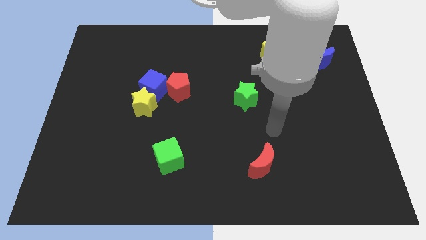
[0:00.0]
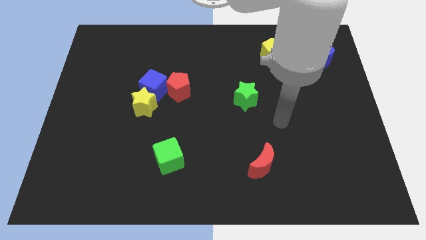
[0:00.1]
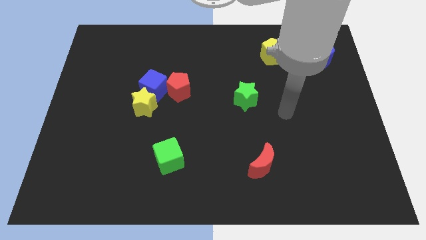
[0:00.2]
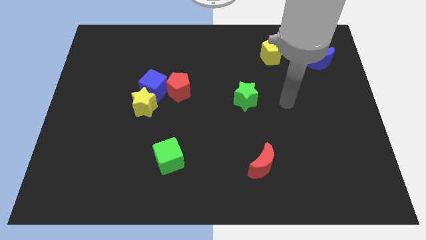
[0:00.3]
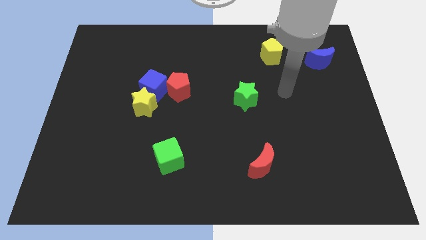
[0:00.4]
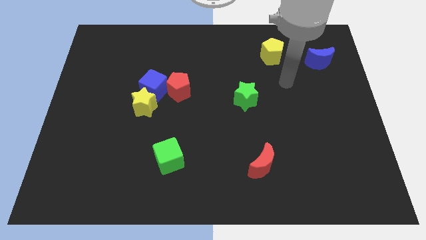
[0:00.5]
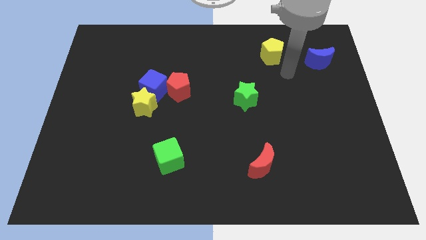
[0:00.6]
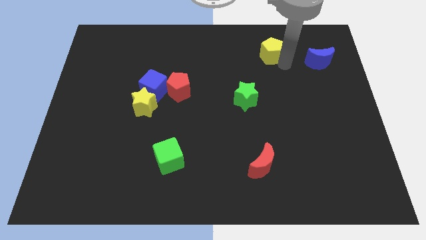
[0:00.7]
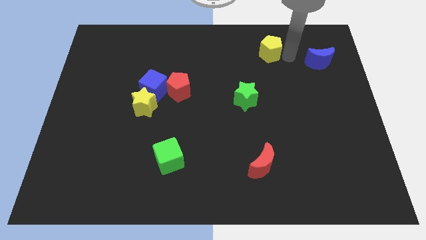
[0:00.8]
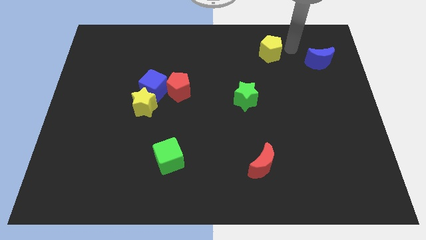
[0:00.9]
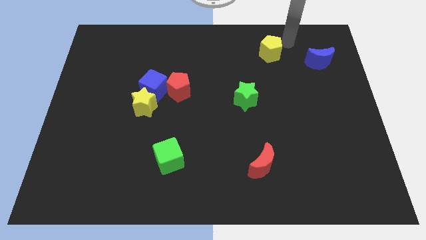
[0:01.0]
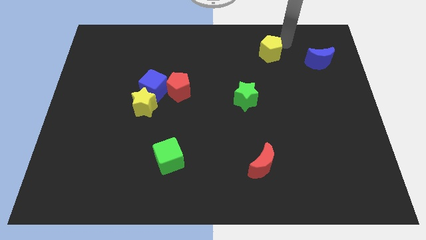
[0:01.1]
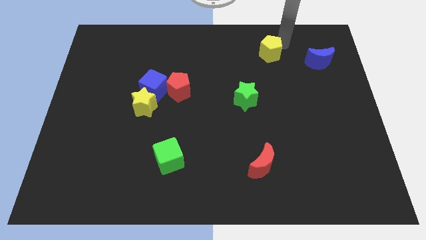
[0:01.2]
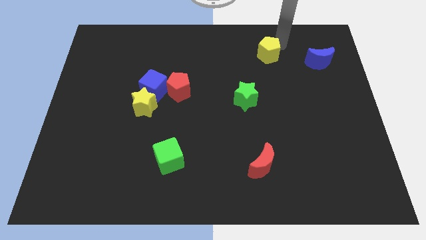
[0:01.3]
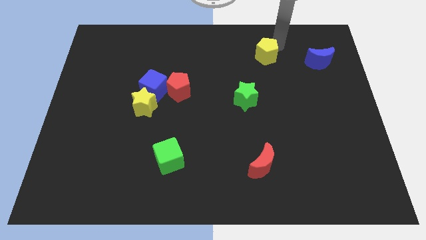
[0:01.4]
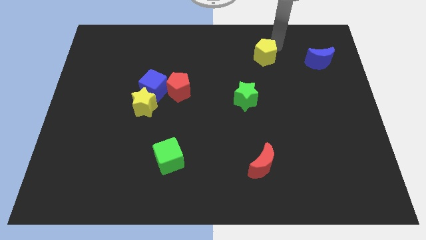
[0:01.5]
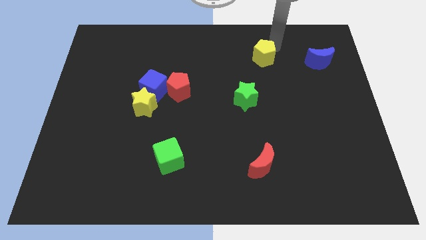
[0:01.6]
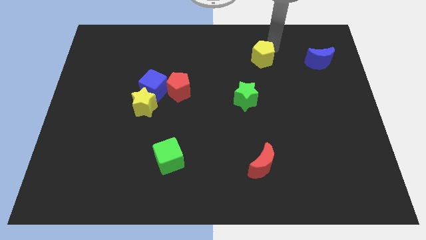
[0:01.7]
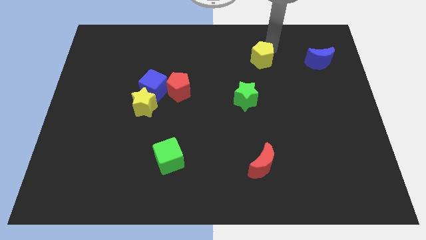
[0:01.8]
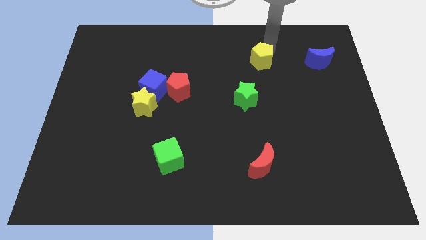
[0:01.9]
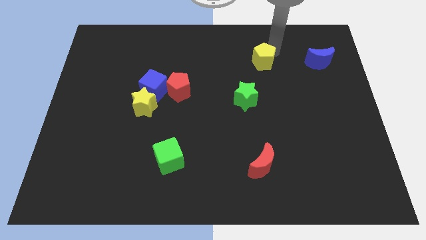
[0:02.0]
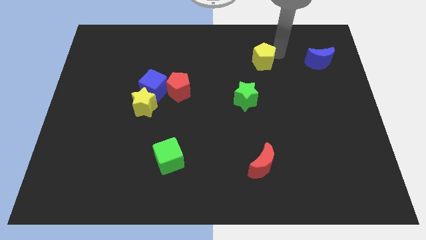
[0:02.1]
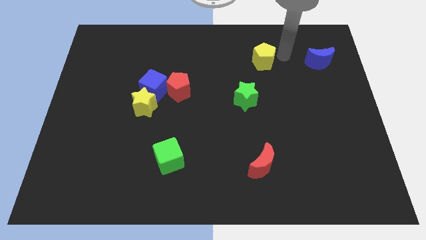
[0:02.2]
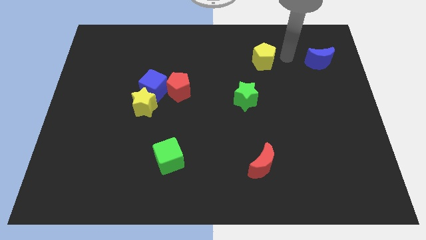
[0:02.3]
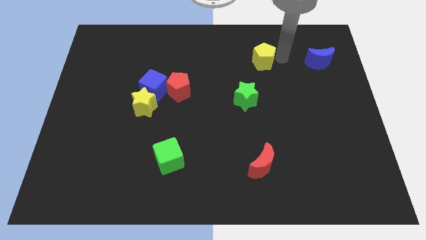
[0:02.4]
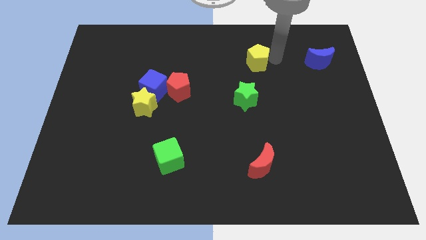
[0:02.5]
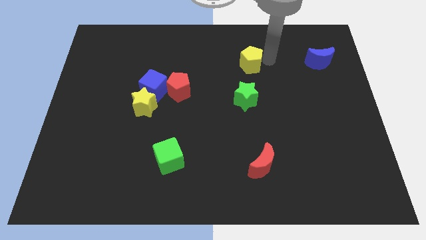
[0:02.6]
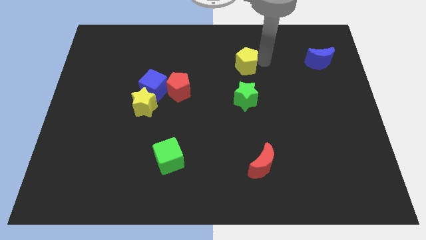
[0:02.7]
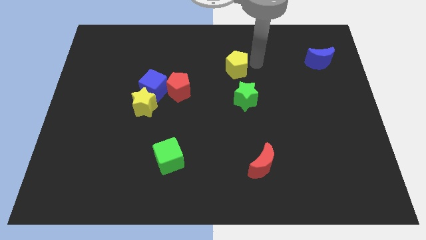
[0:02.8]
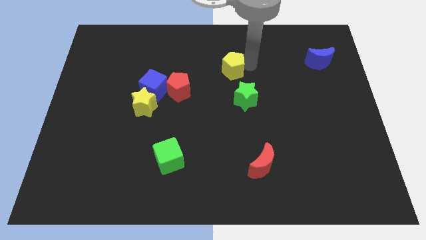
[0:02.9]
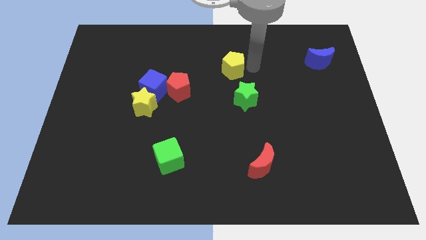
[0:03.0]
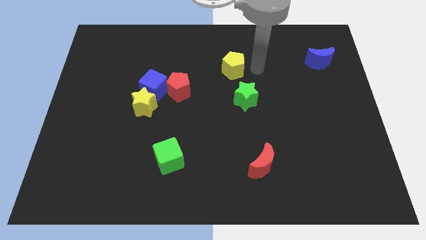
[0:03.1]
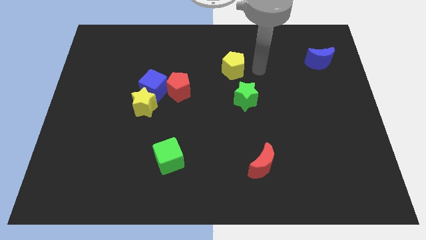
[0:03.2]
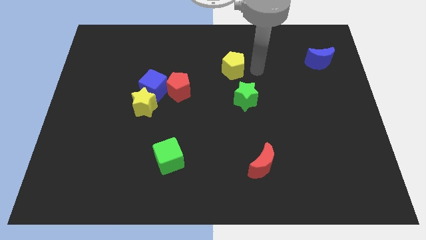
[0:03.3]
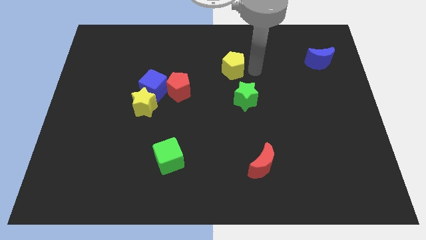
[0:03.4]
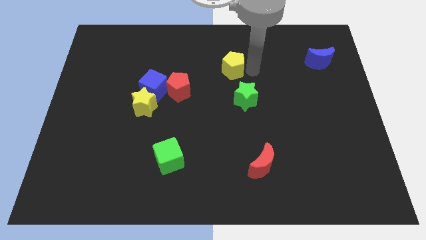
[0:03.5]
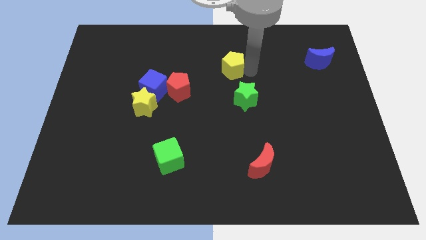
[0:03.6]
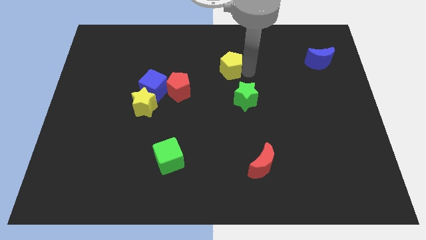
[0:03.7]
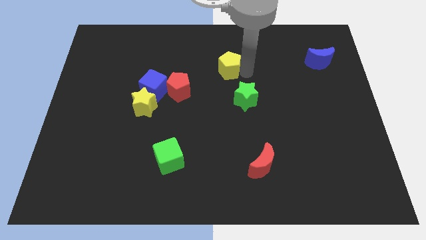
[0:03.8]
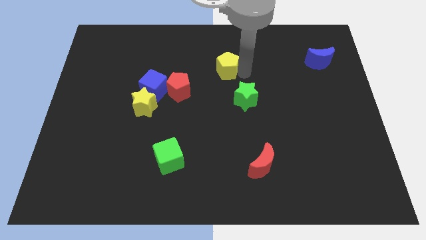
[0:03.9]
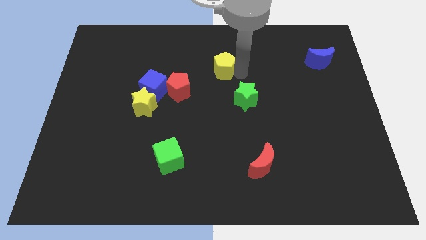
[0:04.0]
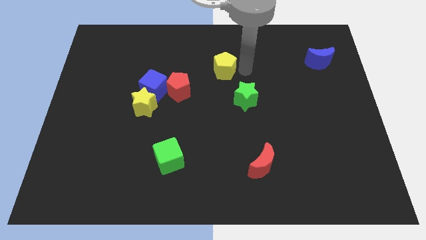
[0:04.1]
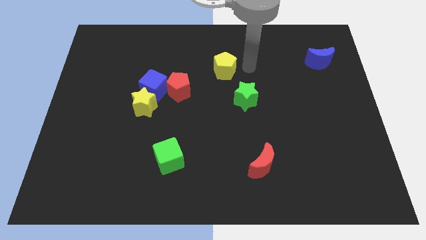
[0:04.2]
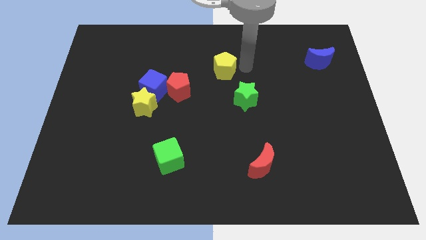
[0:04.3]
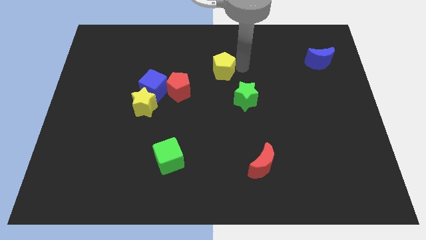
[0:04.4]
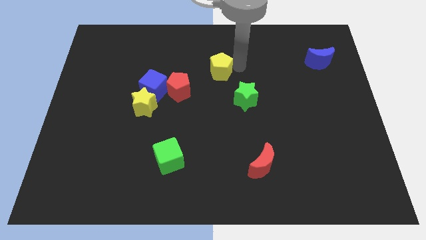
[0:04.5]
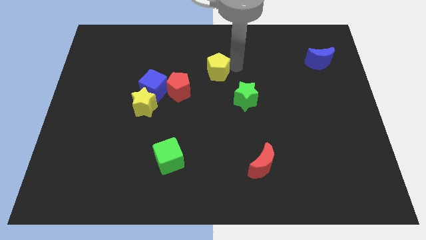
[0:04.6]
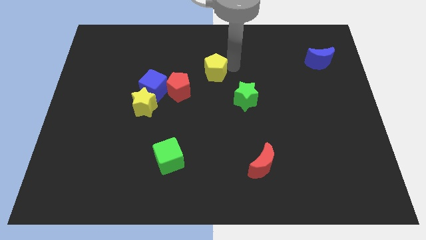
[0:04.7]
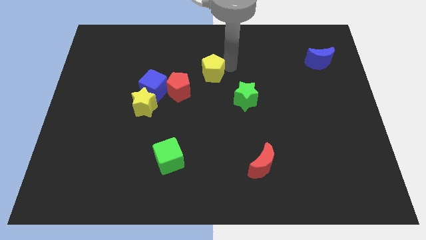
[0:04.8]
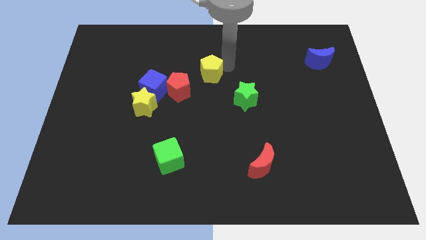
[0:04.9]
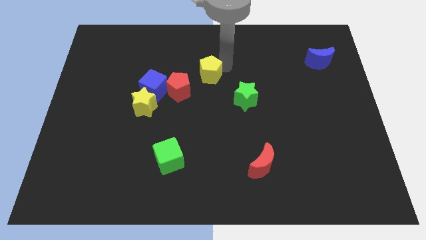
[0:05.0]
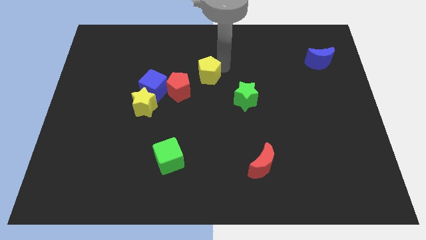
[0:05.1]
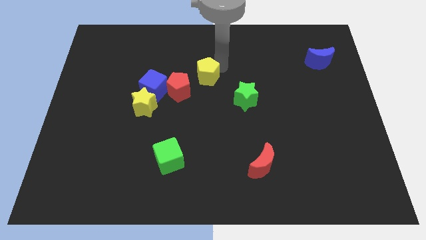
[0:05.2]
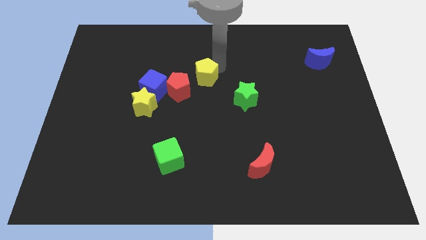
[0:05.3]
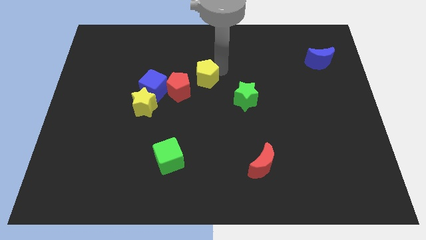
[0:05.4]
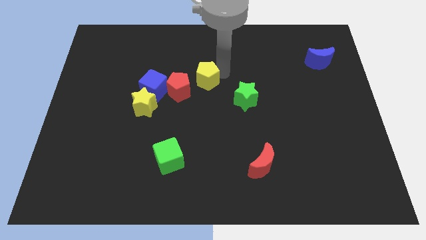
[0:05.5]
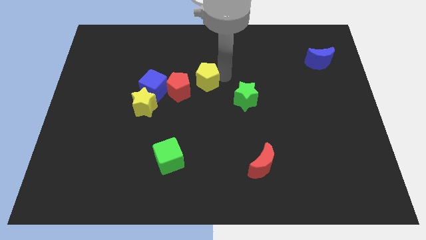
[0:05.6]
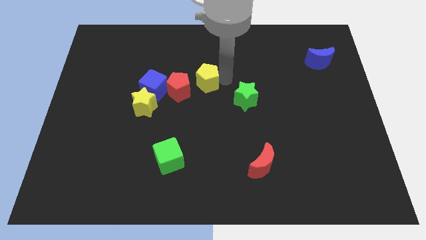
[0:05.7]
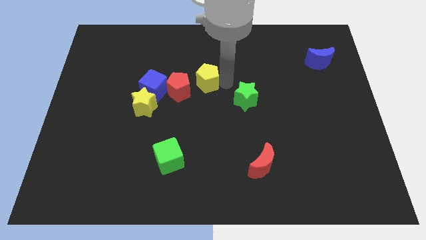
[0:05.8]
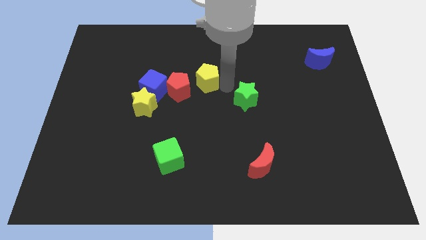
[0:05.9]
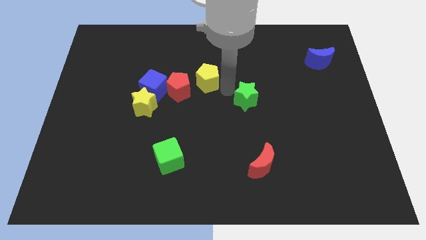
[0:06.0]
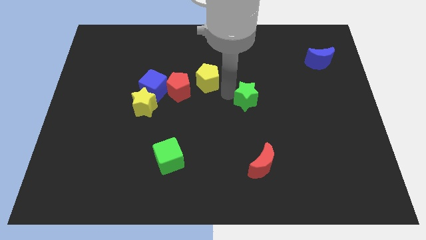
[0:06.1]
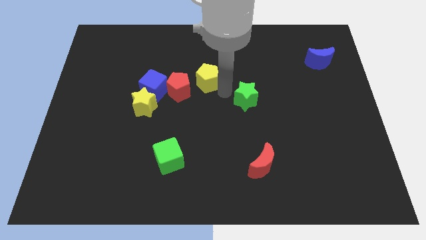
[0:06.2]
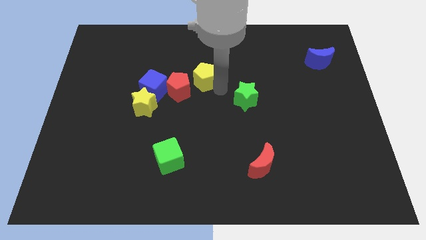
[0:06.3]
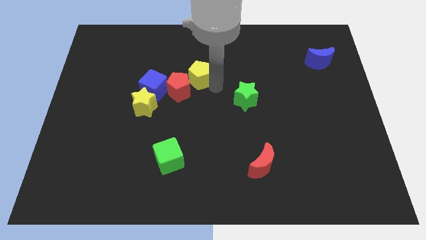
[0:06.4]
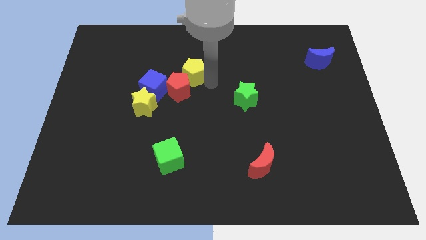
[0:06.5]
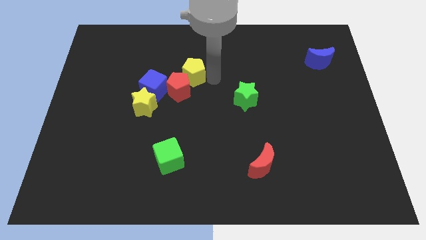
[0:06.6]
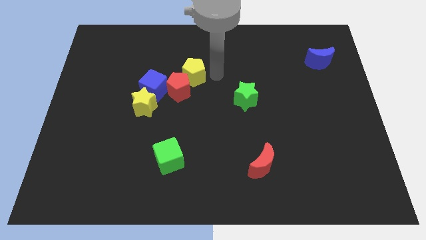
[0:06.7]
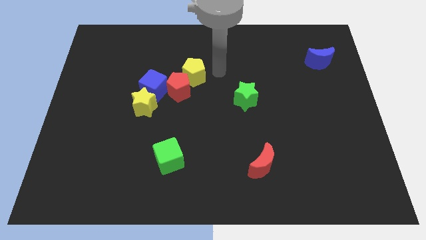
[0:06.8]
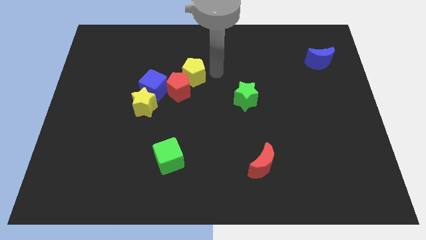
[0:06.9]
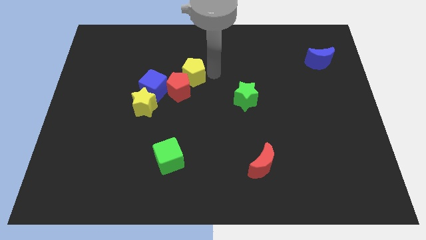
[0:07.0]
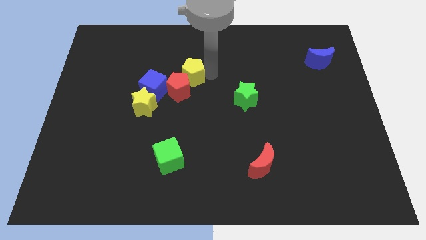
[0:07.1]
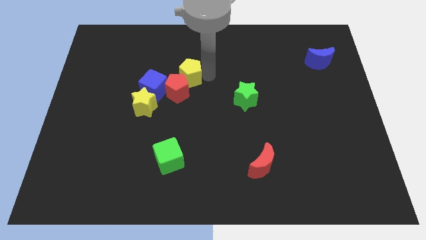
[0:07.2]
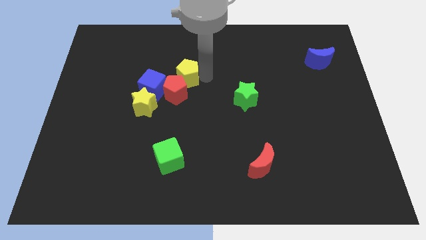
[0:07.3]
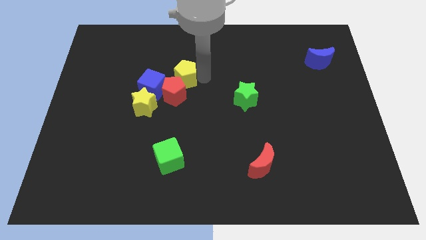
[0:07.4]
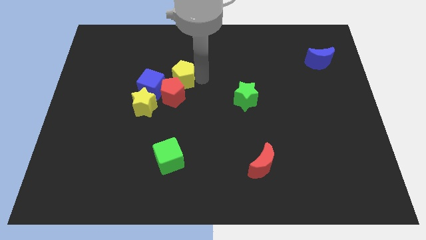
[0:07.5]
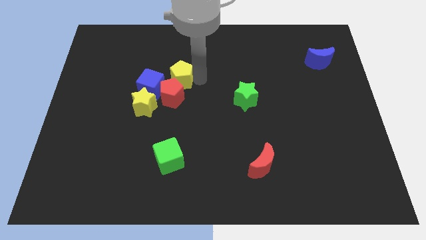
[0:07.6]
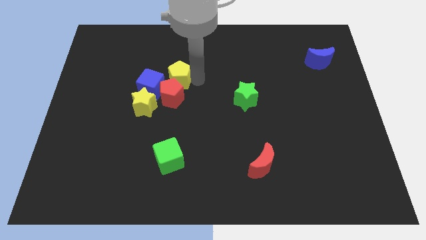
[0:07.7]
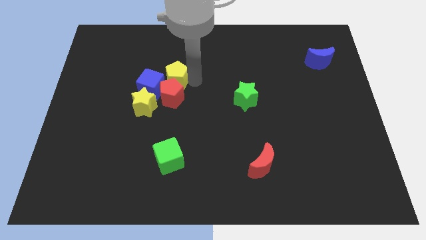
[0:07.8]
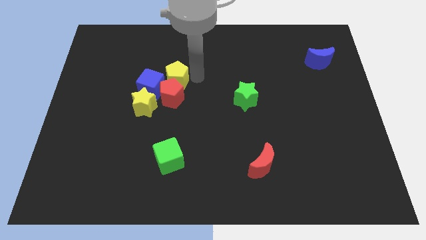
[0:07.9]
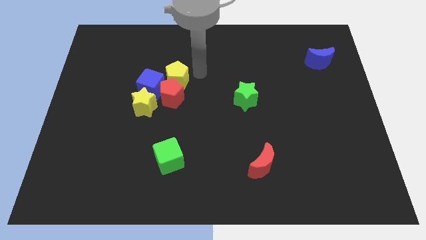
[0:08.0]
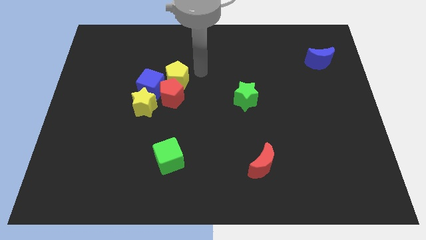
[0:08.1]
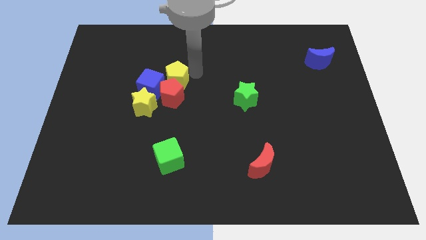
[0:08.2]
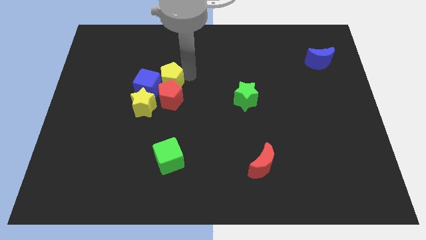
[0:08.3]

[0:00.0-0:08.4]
put the yellow pentagon towards the blue cube
